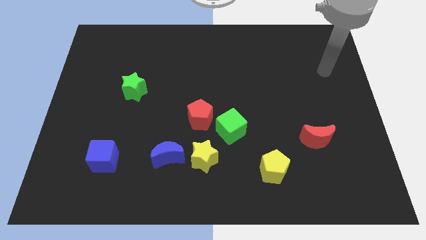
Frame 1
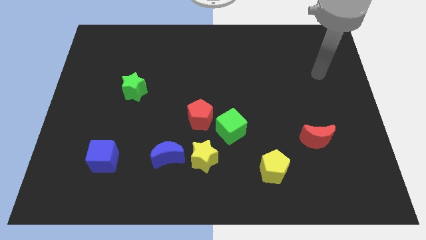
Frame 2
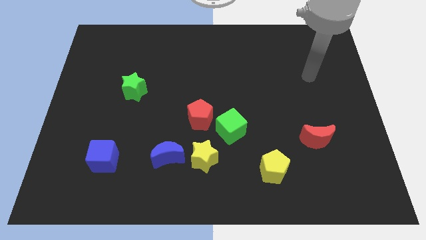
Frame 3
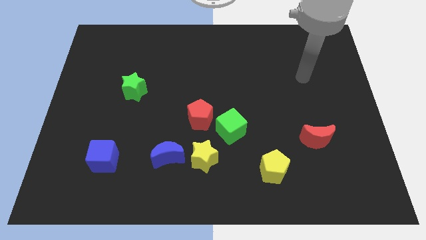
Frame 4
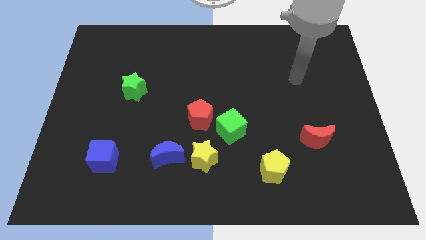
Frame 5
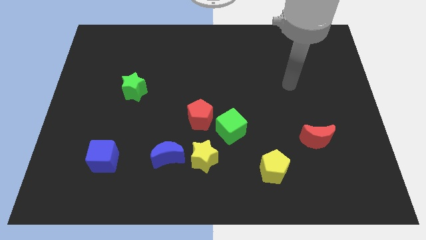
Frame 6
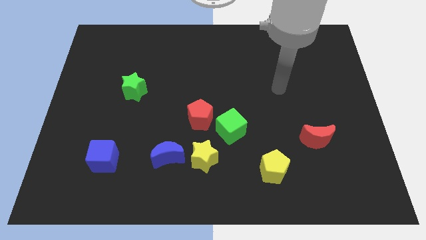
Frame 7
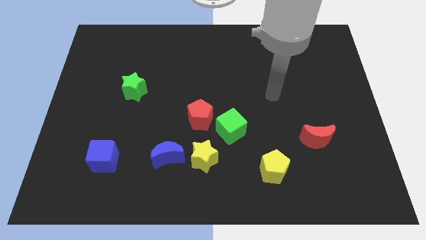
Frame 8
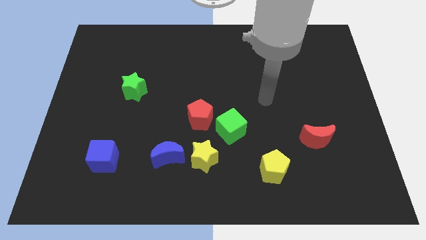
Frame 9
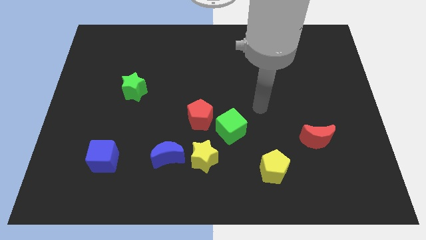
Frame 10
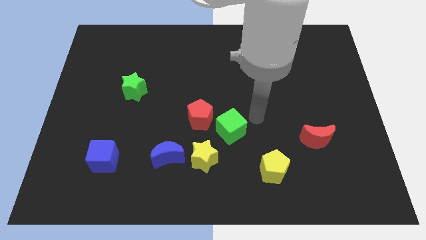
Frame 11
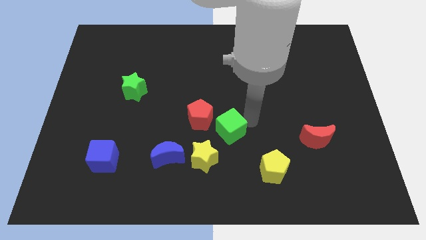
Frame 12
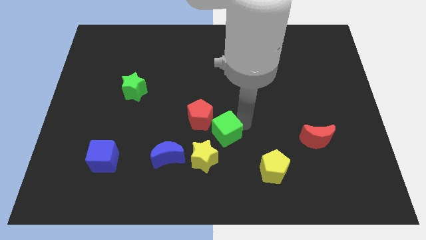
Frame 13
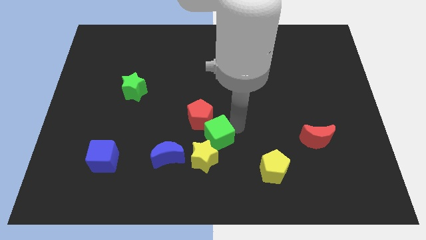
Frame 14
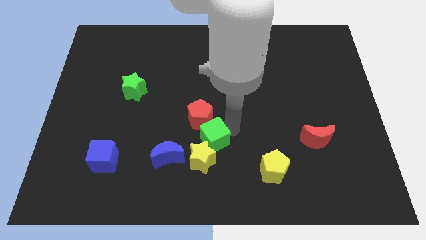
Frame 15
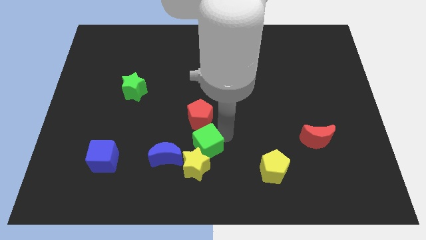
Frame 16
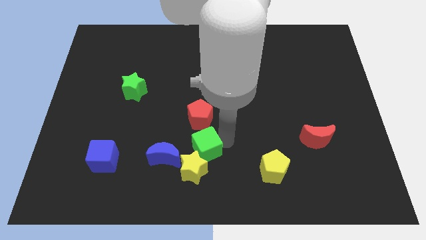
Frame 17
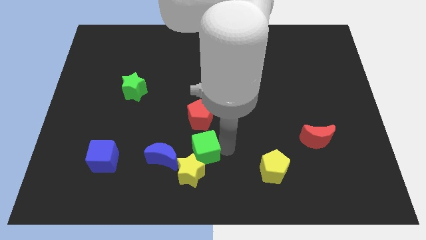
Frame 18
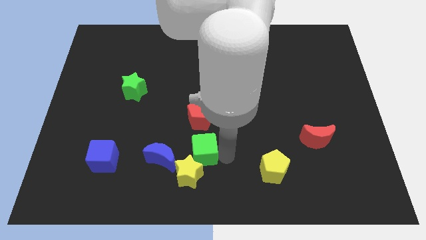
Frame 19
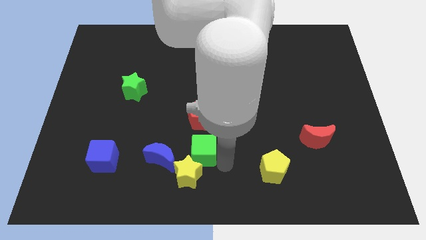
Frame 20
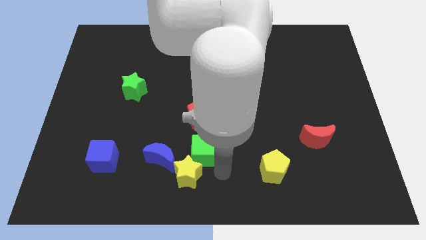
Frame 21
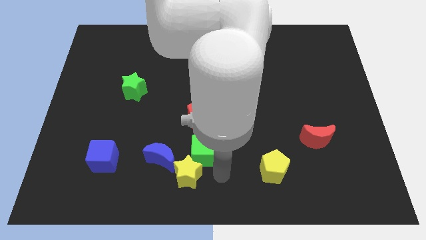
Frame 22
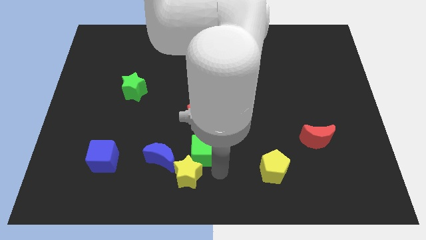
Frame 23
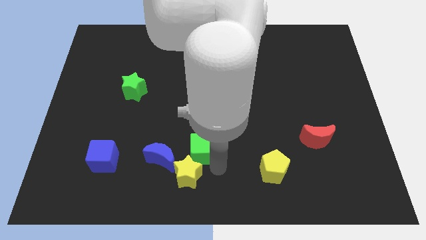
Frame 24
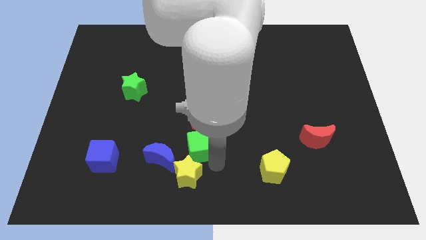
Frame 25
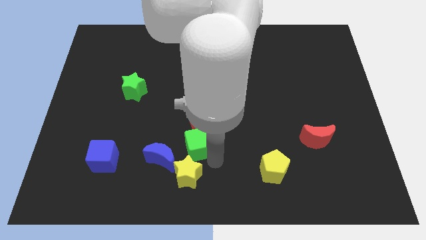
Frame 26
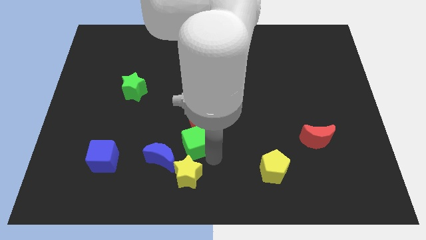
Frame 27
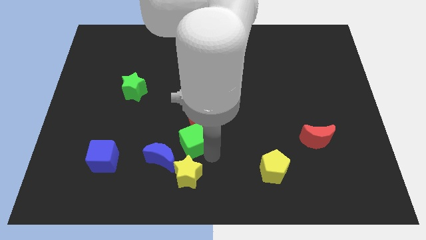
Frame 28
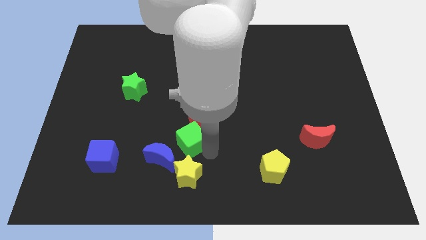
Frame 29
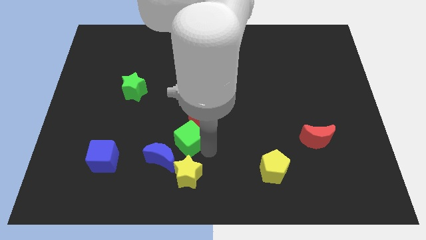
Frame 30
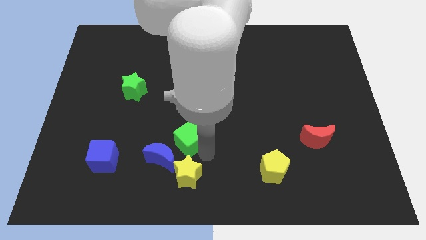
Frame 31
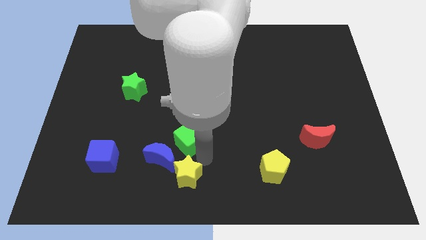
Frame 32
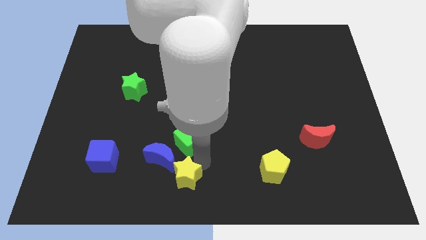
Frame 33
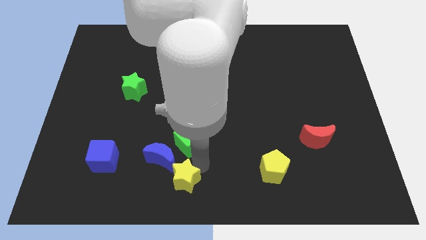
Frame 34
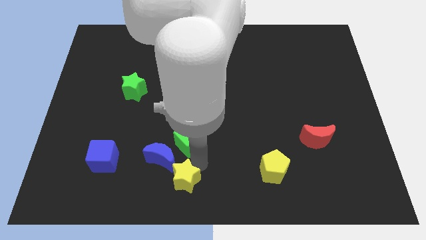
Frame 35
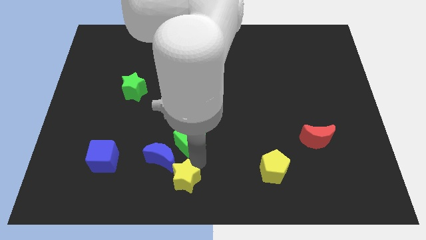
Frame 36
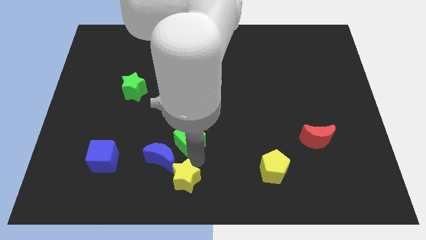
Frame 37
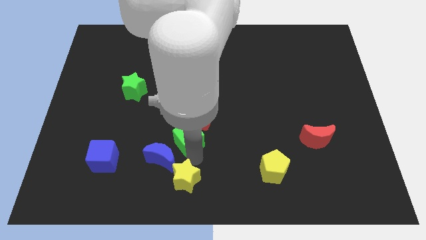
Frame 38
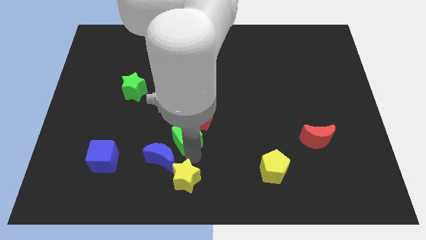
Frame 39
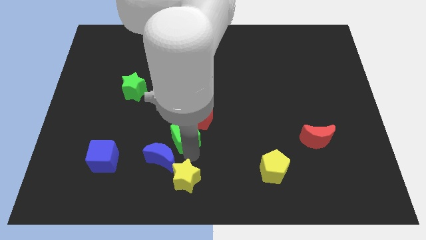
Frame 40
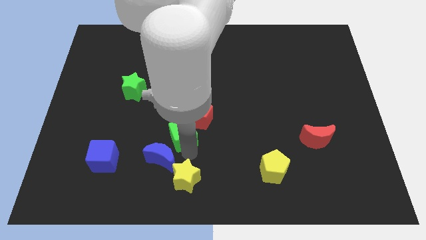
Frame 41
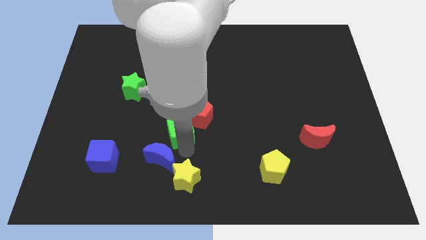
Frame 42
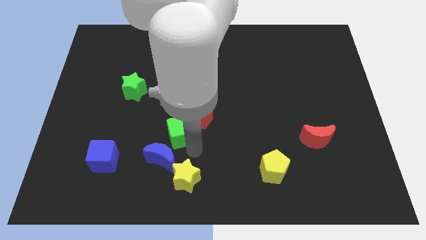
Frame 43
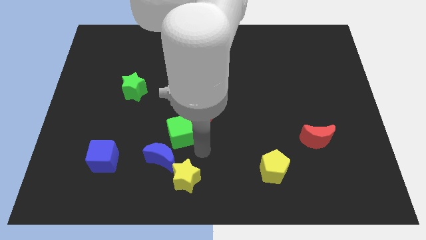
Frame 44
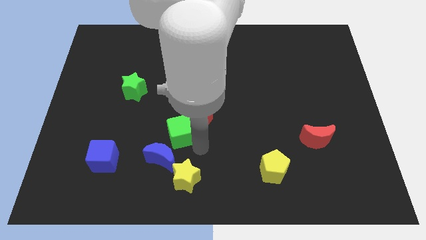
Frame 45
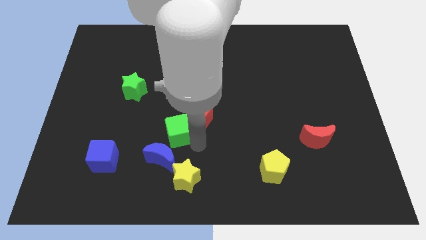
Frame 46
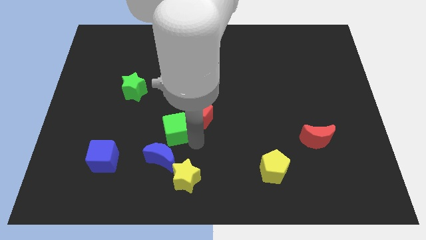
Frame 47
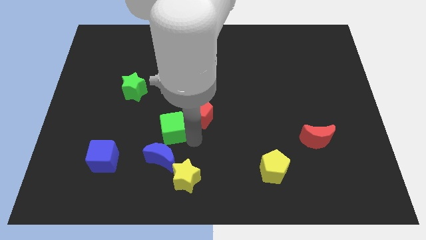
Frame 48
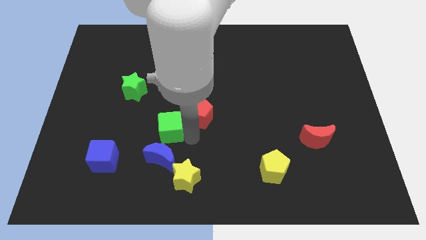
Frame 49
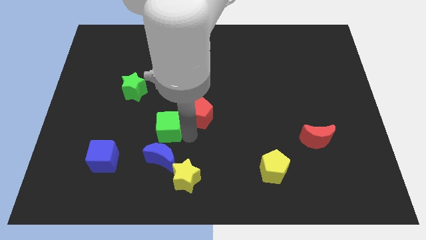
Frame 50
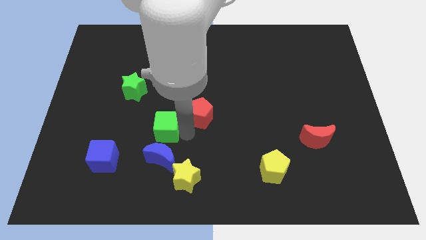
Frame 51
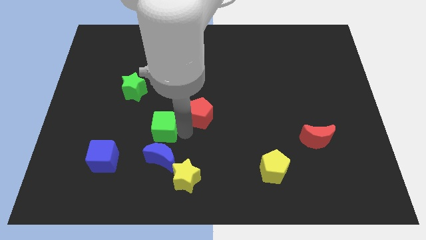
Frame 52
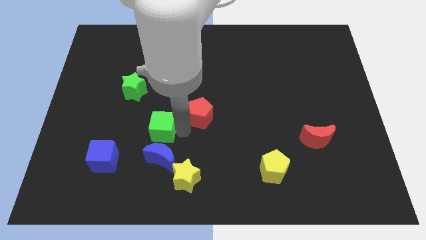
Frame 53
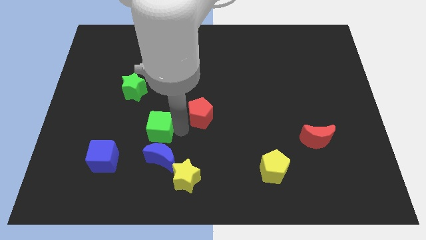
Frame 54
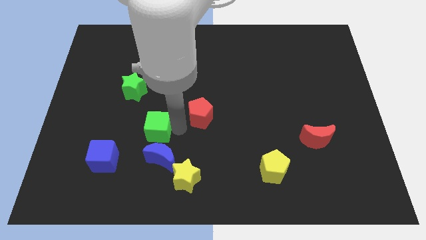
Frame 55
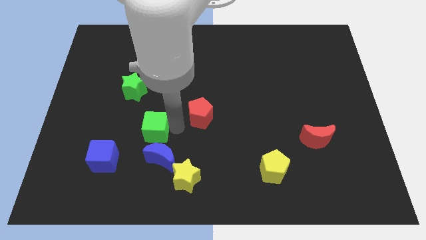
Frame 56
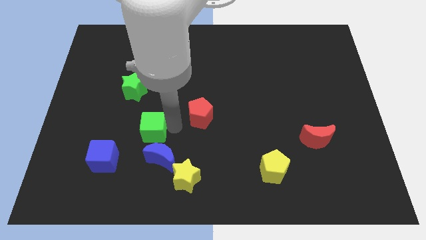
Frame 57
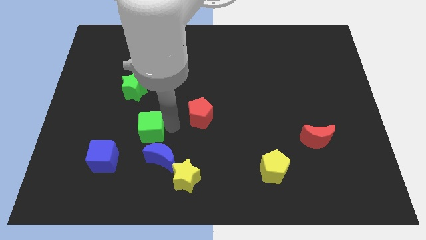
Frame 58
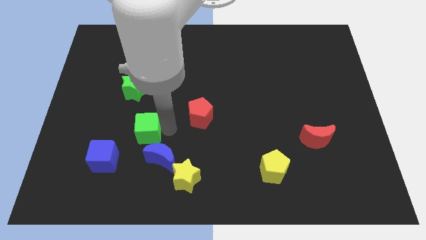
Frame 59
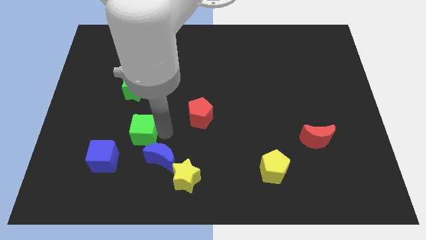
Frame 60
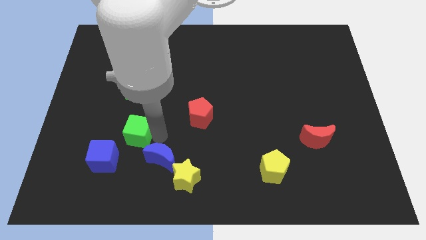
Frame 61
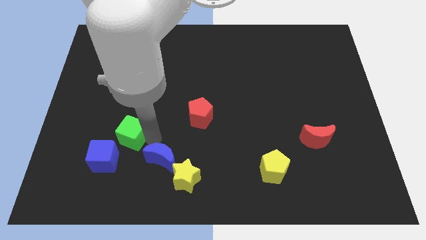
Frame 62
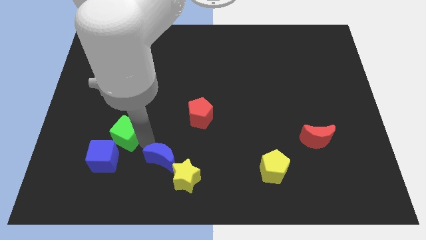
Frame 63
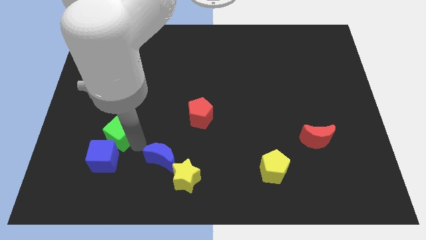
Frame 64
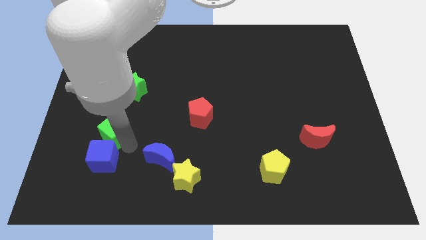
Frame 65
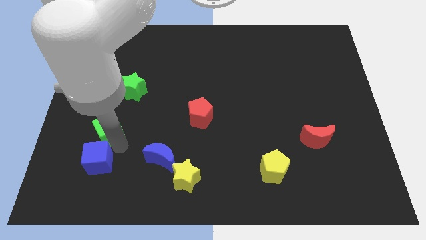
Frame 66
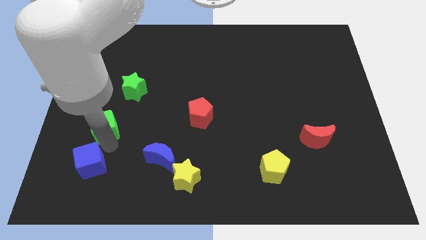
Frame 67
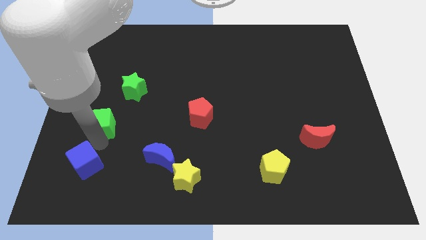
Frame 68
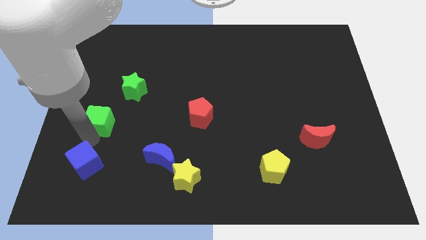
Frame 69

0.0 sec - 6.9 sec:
put the green cube to the bottom left side of the green star
